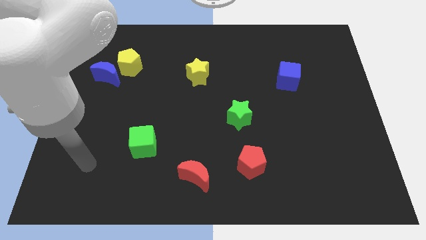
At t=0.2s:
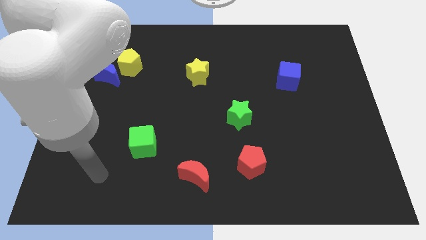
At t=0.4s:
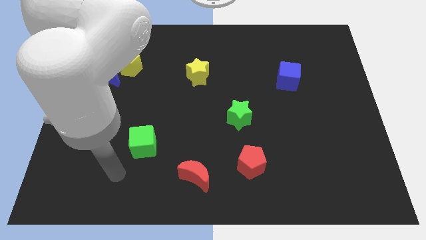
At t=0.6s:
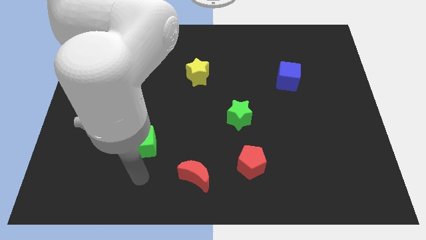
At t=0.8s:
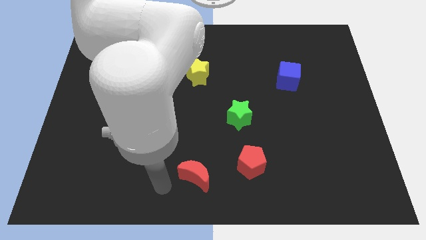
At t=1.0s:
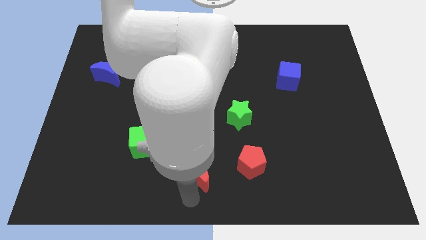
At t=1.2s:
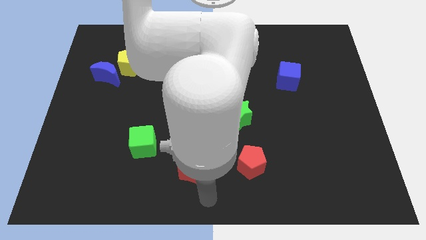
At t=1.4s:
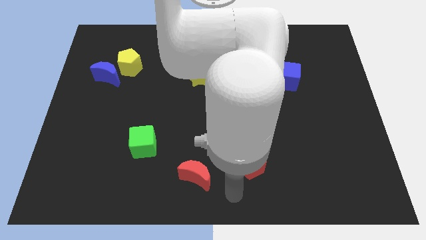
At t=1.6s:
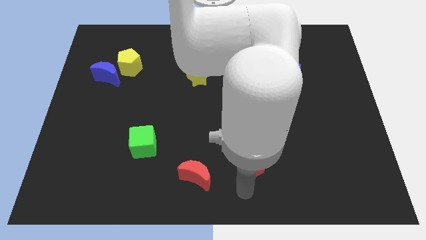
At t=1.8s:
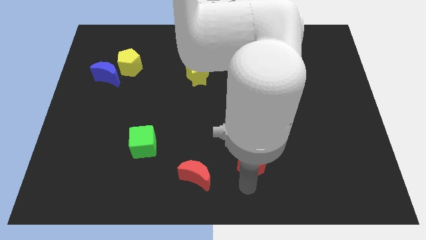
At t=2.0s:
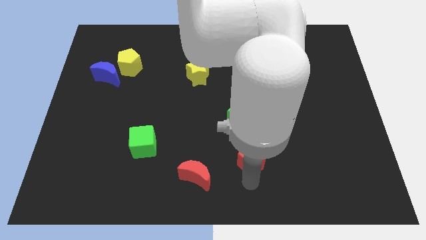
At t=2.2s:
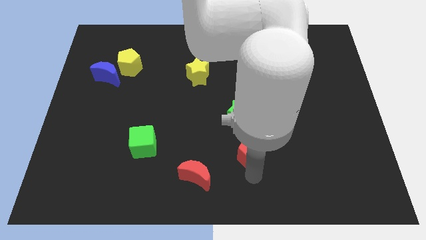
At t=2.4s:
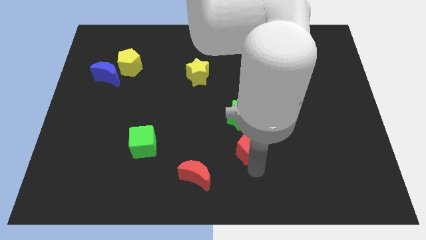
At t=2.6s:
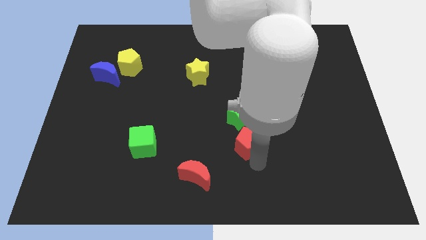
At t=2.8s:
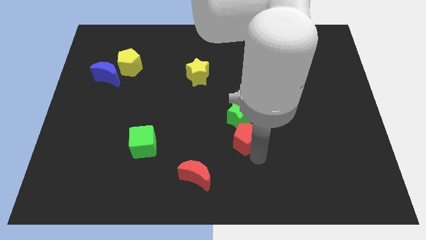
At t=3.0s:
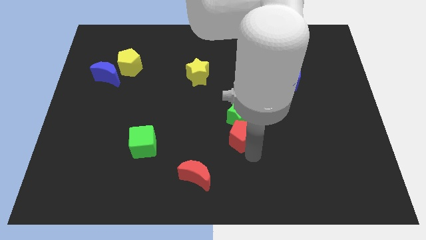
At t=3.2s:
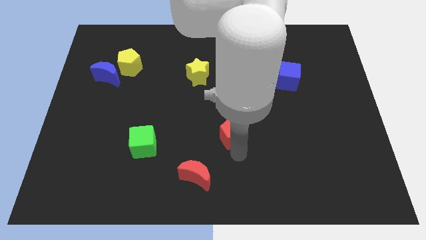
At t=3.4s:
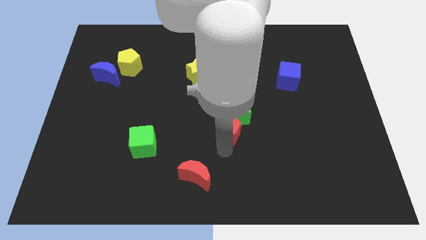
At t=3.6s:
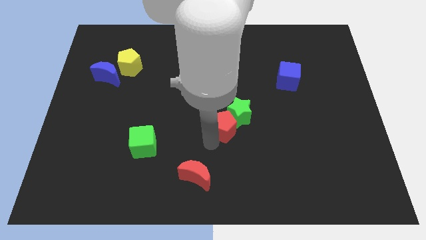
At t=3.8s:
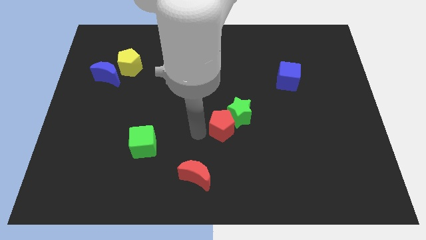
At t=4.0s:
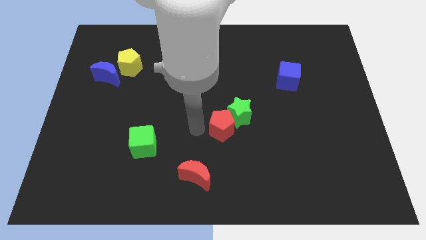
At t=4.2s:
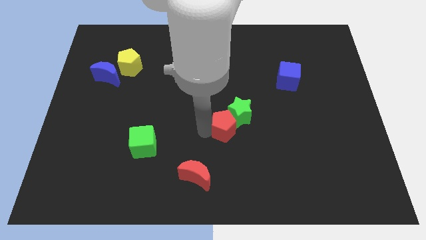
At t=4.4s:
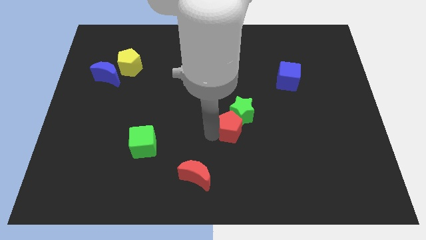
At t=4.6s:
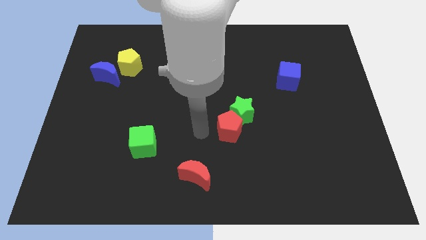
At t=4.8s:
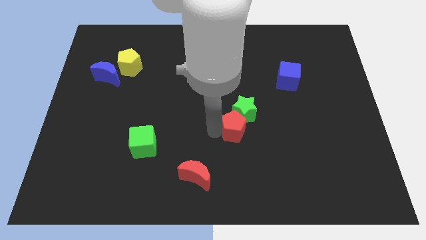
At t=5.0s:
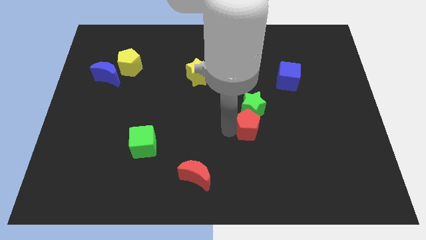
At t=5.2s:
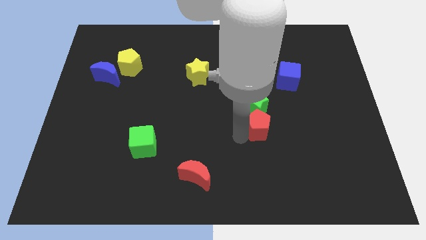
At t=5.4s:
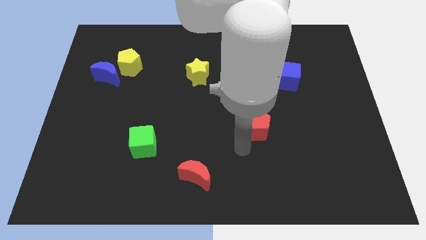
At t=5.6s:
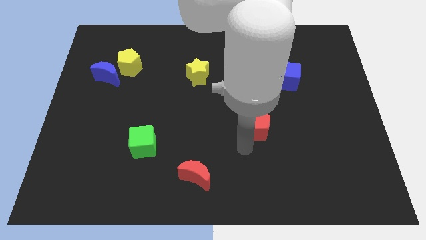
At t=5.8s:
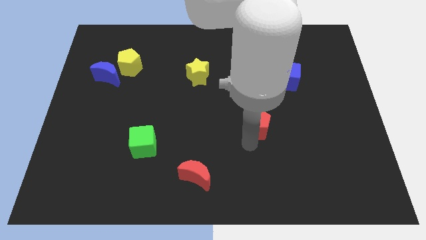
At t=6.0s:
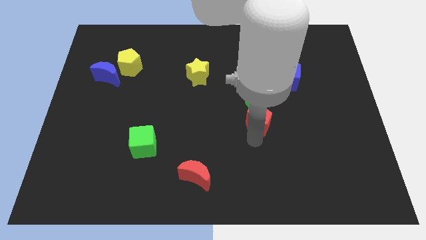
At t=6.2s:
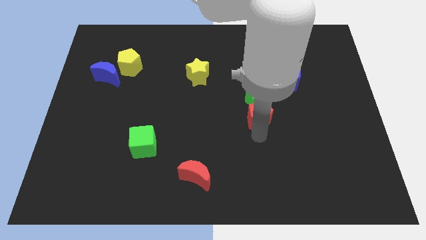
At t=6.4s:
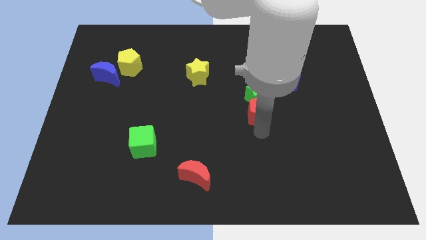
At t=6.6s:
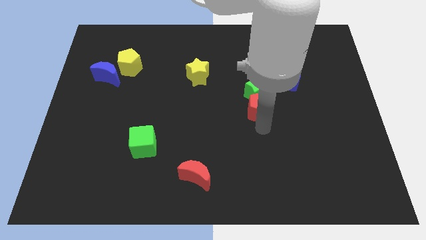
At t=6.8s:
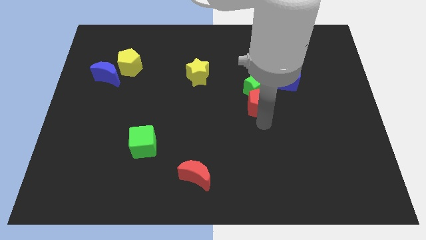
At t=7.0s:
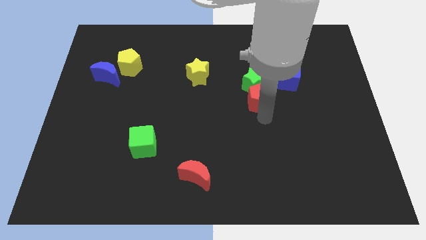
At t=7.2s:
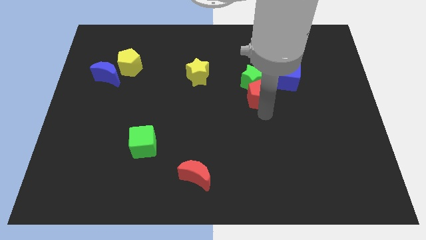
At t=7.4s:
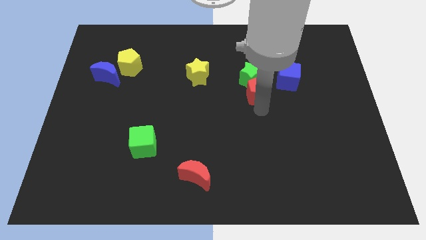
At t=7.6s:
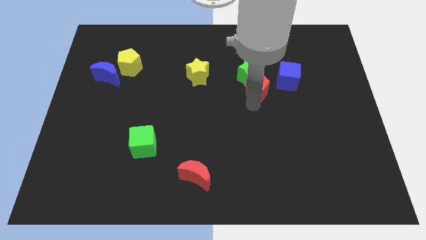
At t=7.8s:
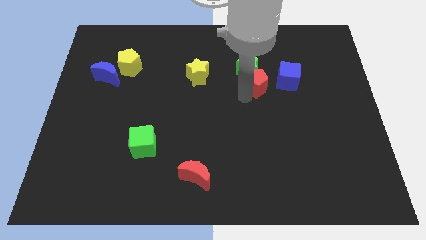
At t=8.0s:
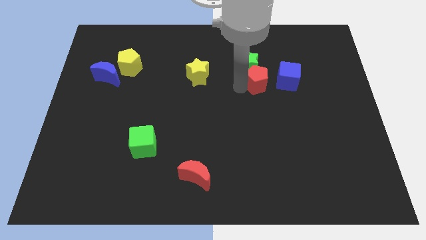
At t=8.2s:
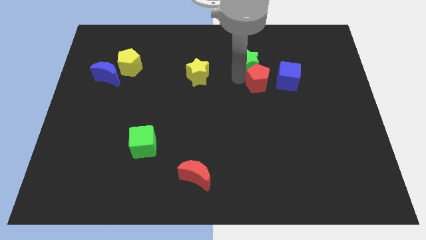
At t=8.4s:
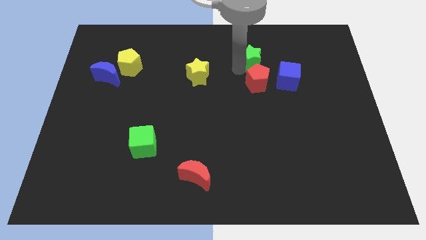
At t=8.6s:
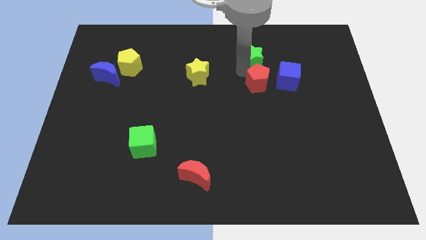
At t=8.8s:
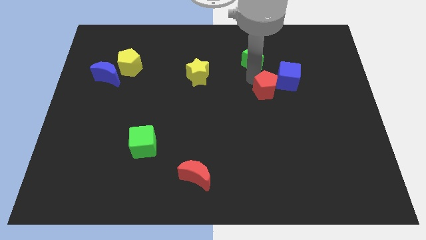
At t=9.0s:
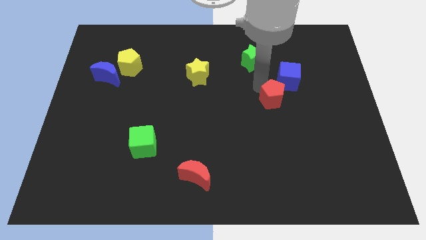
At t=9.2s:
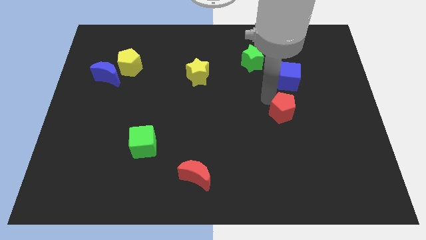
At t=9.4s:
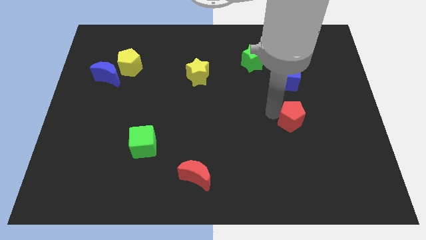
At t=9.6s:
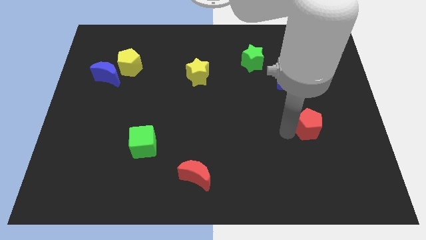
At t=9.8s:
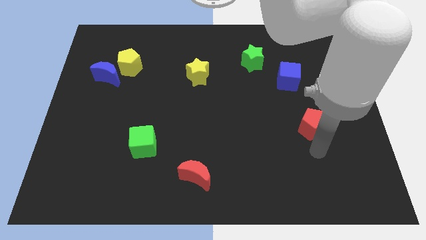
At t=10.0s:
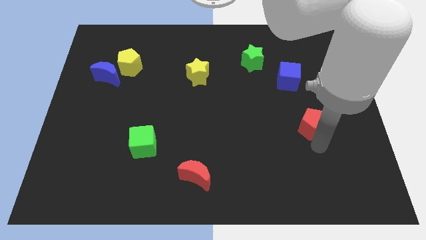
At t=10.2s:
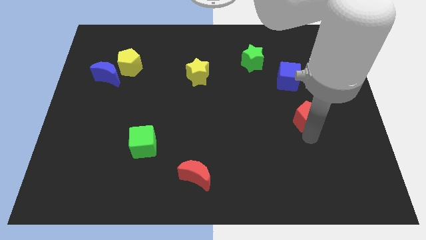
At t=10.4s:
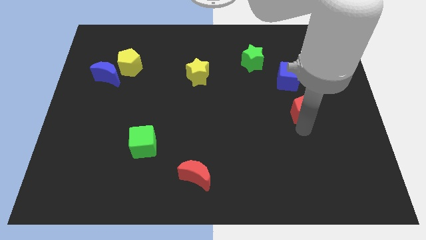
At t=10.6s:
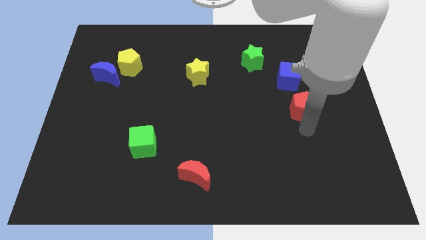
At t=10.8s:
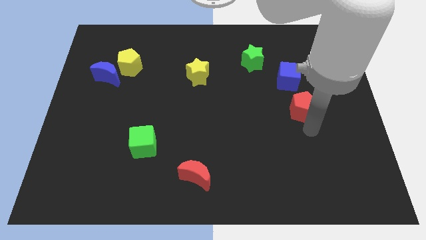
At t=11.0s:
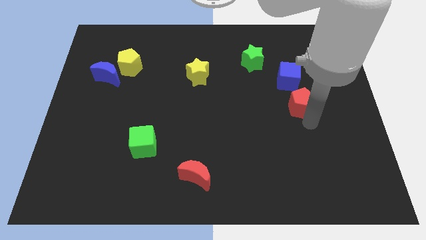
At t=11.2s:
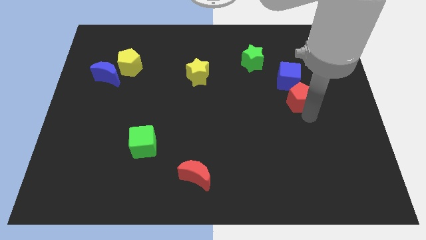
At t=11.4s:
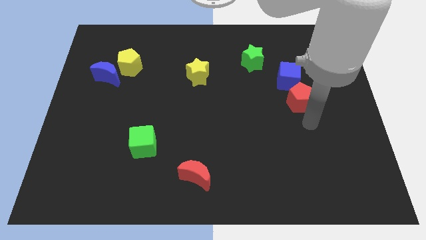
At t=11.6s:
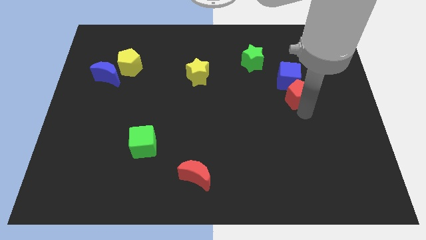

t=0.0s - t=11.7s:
put the red pentagon next to the blue cube

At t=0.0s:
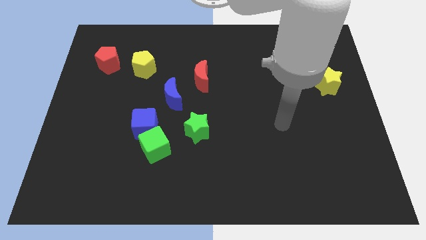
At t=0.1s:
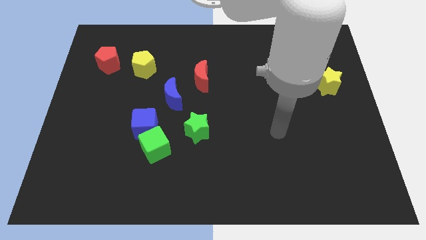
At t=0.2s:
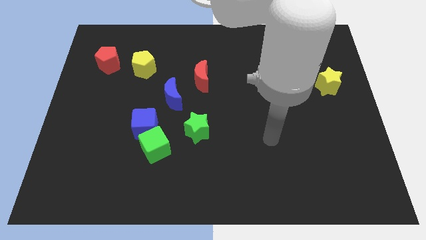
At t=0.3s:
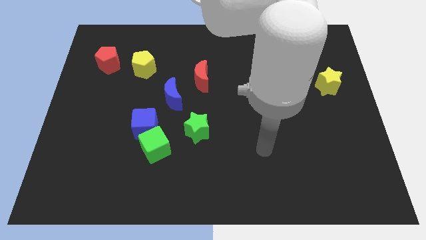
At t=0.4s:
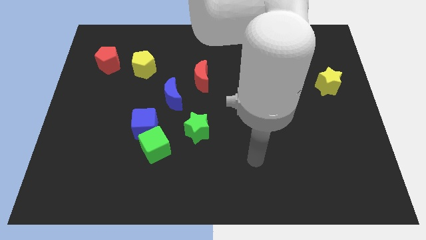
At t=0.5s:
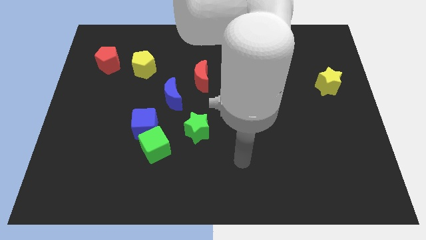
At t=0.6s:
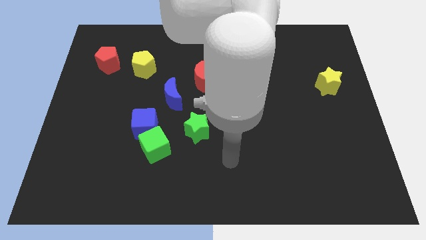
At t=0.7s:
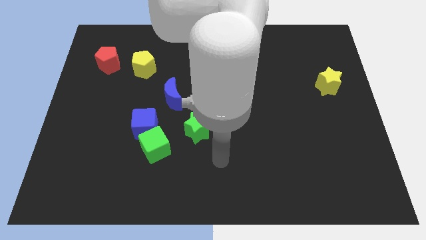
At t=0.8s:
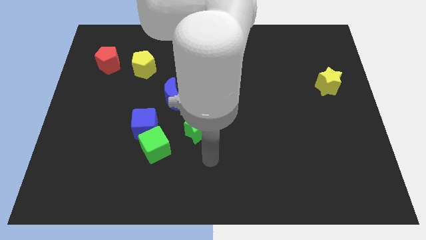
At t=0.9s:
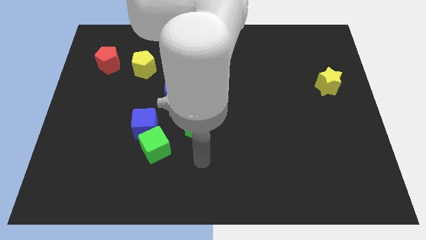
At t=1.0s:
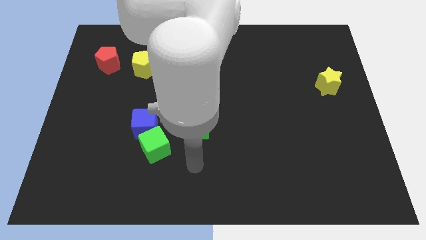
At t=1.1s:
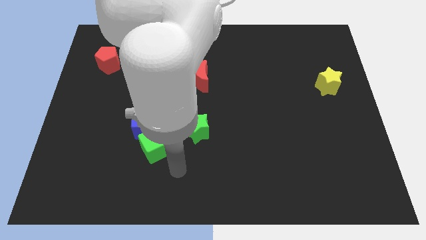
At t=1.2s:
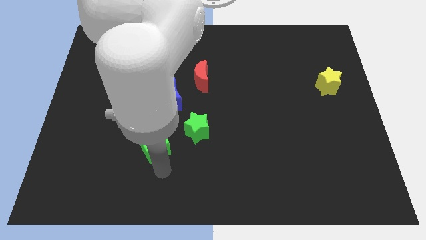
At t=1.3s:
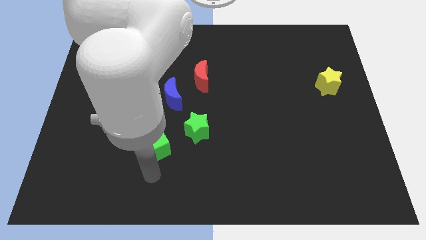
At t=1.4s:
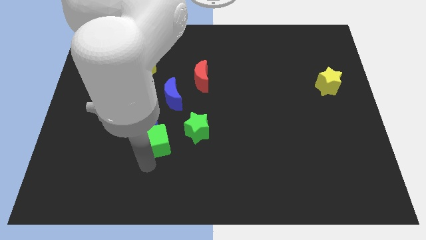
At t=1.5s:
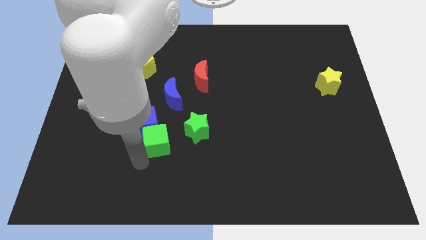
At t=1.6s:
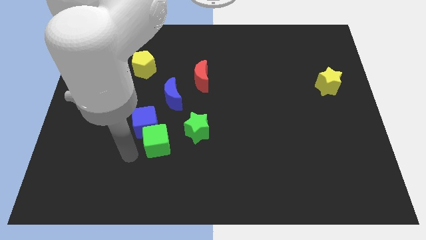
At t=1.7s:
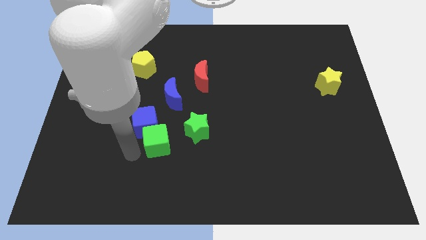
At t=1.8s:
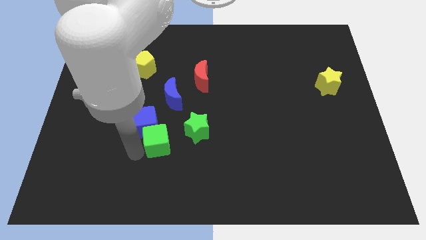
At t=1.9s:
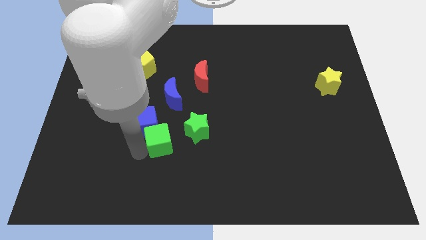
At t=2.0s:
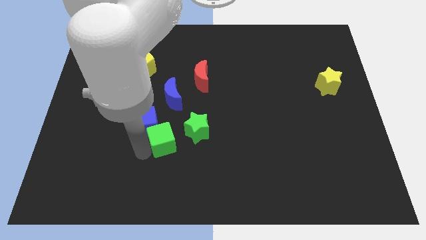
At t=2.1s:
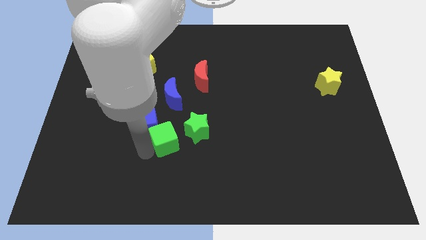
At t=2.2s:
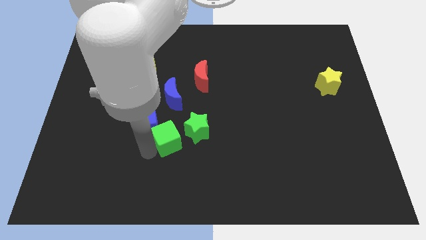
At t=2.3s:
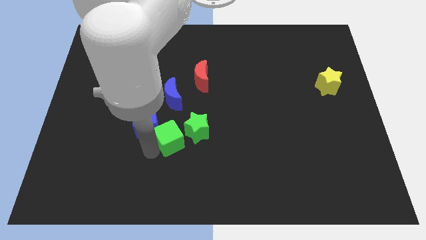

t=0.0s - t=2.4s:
slide the green cube next to the green star
